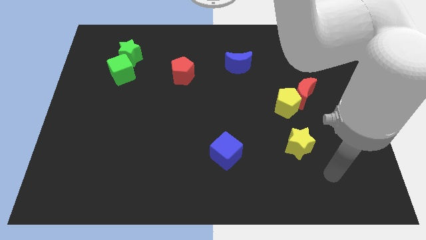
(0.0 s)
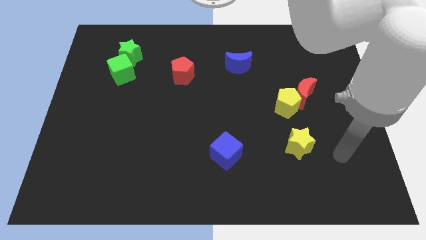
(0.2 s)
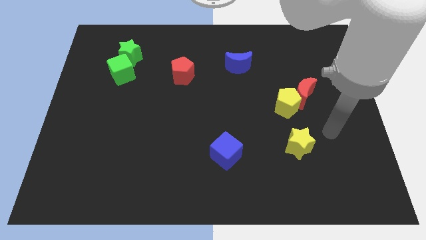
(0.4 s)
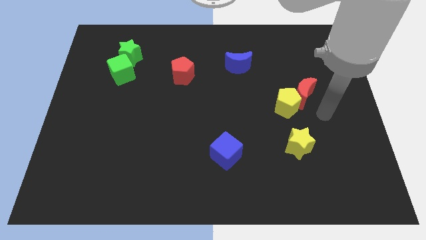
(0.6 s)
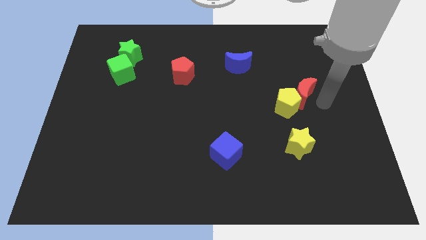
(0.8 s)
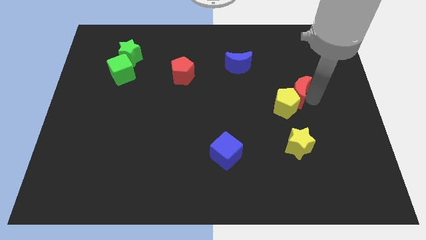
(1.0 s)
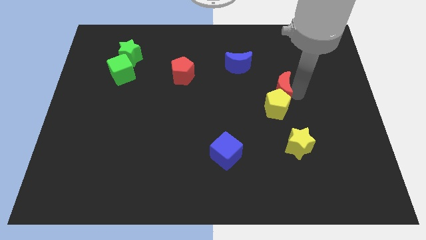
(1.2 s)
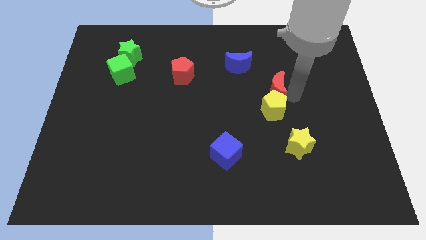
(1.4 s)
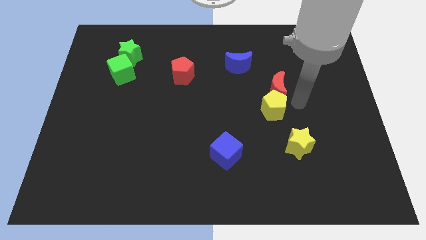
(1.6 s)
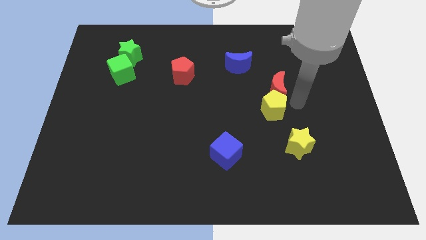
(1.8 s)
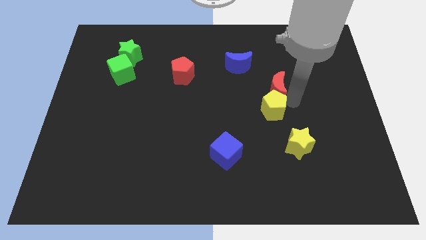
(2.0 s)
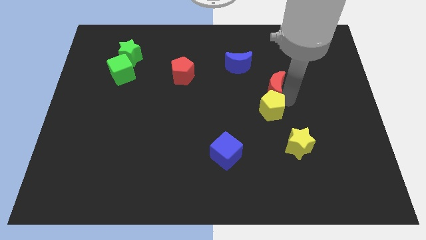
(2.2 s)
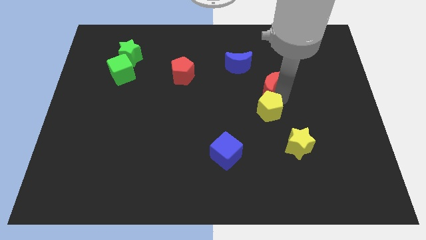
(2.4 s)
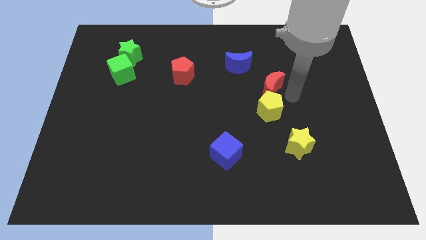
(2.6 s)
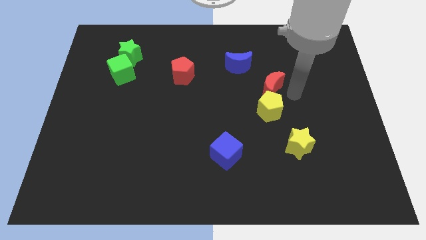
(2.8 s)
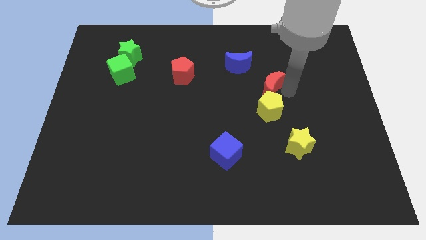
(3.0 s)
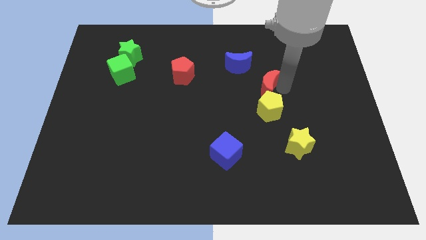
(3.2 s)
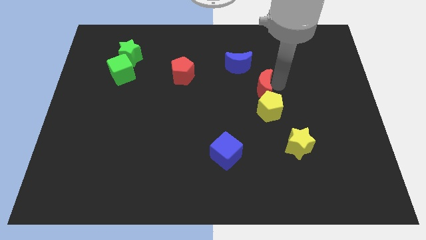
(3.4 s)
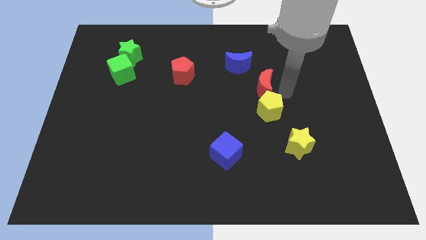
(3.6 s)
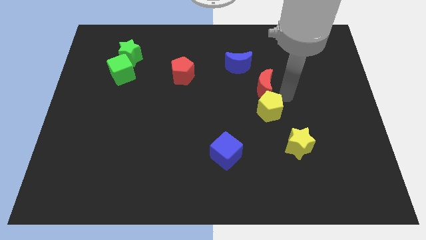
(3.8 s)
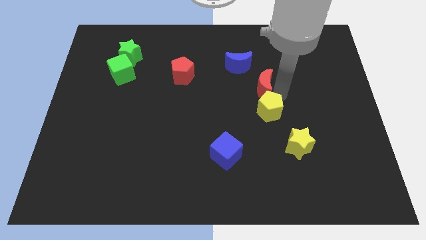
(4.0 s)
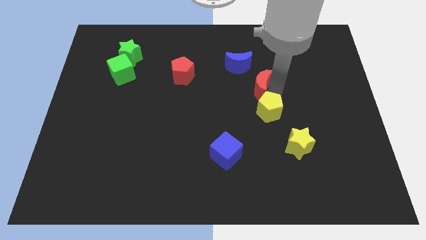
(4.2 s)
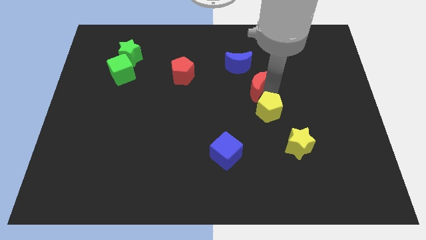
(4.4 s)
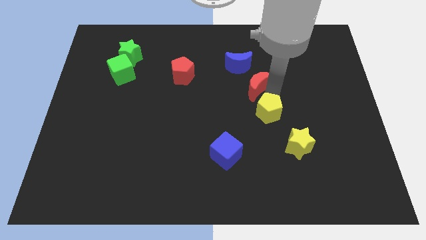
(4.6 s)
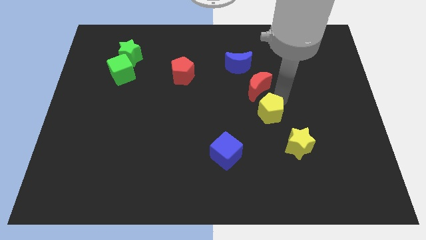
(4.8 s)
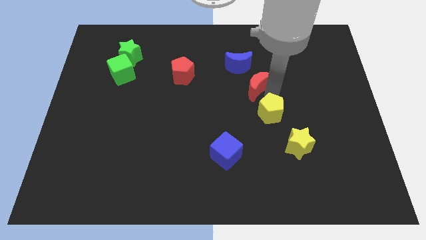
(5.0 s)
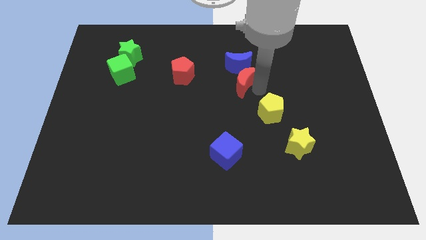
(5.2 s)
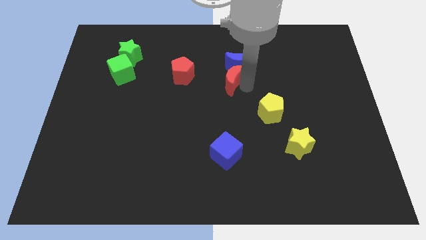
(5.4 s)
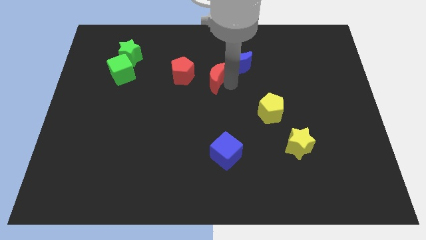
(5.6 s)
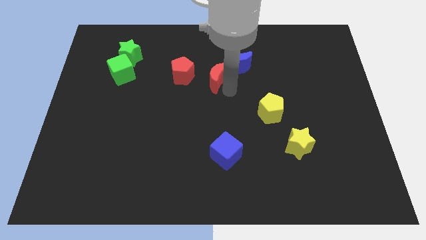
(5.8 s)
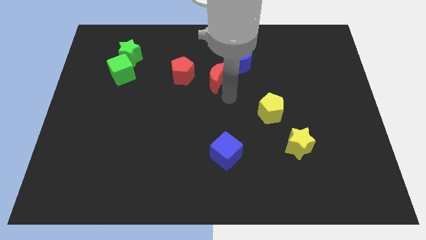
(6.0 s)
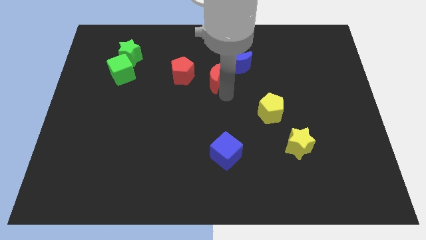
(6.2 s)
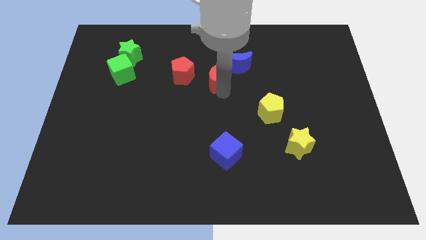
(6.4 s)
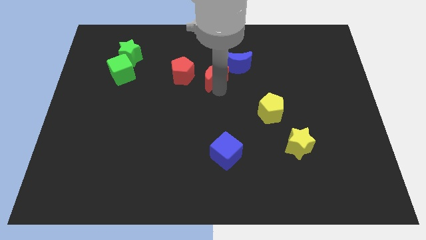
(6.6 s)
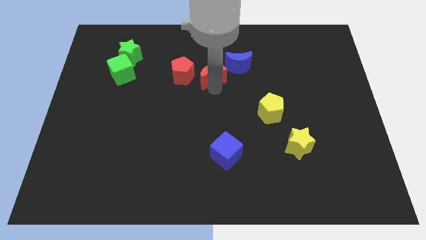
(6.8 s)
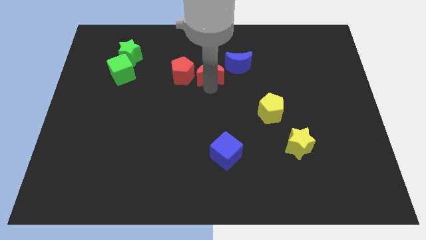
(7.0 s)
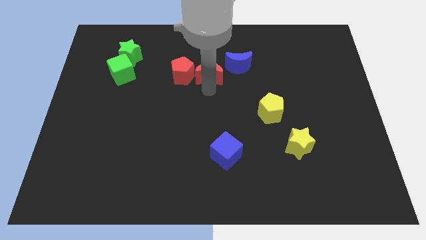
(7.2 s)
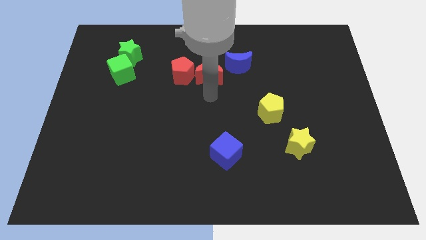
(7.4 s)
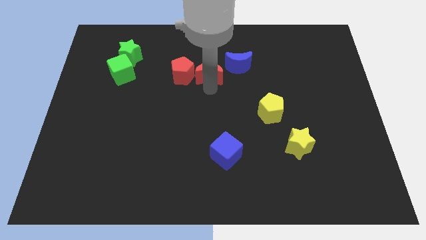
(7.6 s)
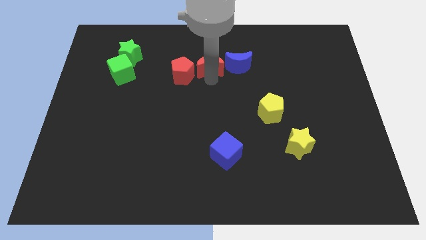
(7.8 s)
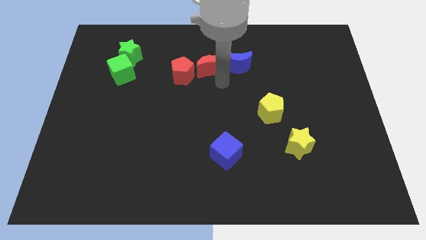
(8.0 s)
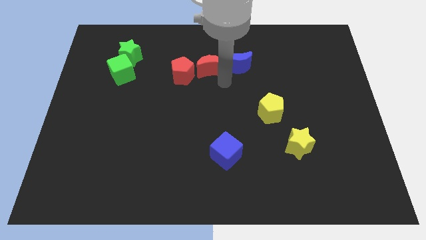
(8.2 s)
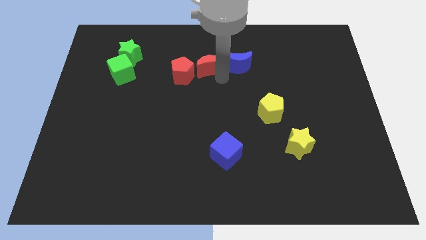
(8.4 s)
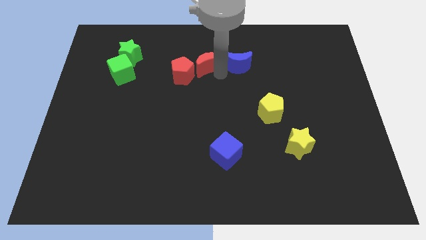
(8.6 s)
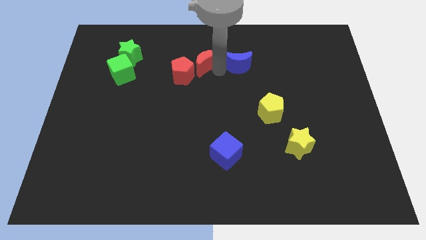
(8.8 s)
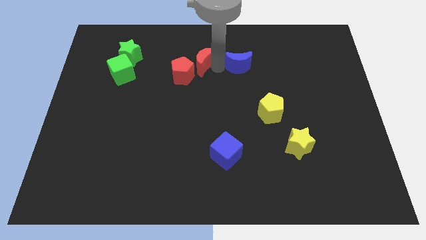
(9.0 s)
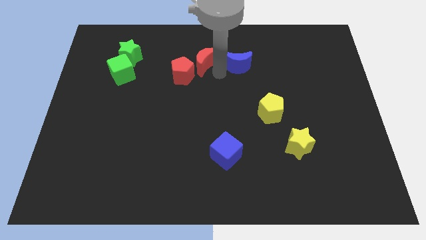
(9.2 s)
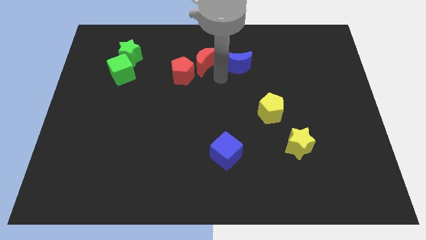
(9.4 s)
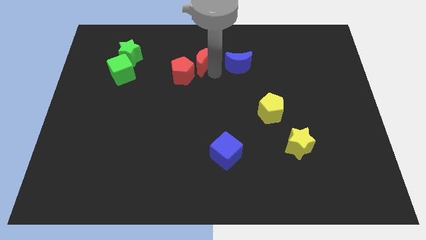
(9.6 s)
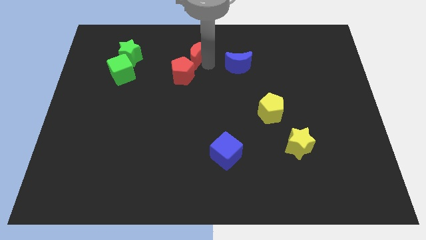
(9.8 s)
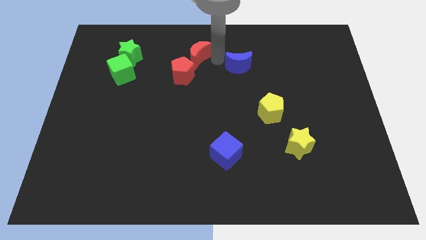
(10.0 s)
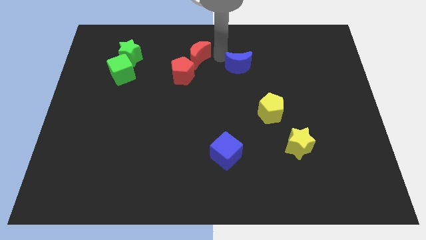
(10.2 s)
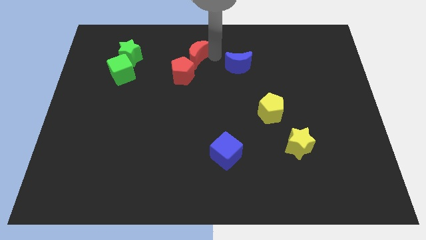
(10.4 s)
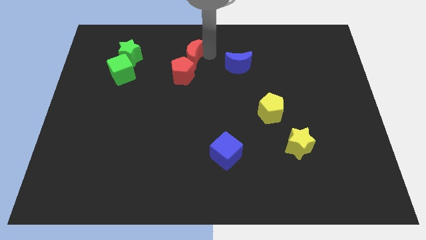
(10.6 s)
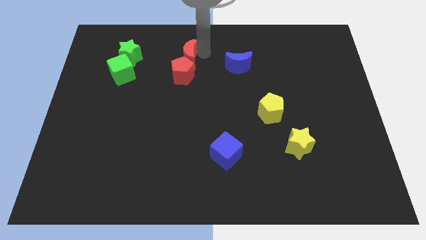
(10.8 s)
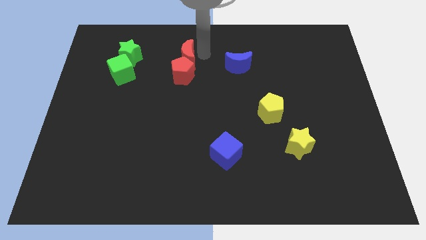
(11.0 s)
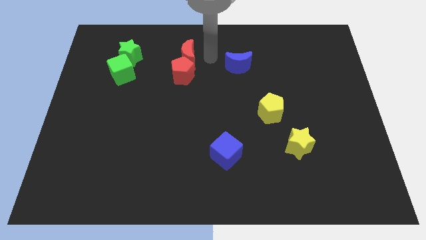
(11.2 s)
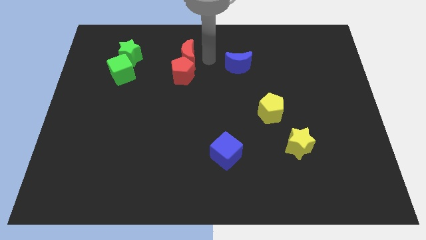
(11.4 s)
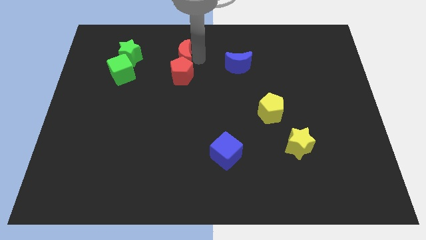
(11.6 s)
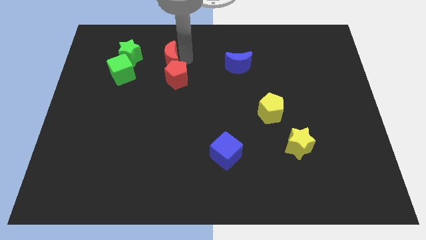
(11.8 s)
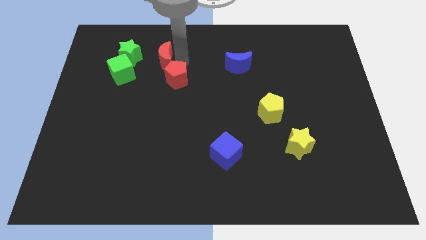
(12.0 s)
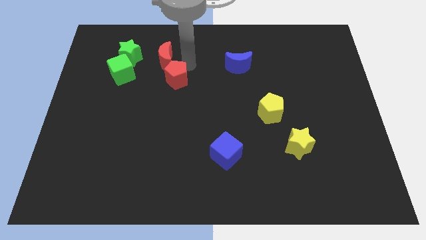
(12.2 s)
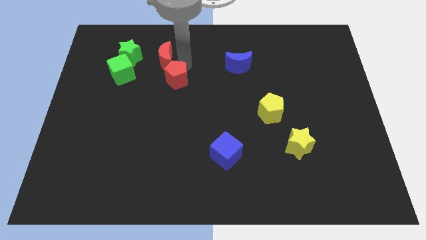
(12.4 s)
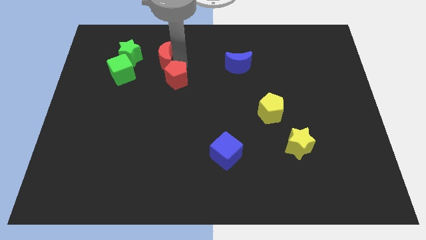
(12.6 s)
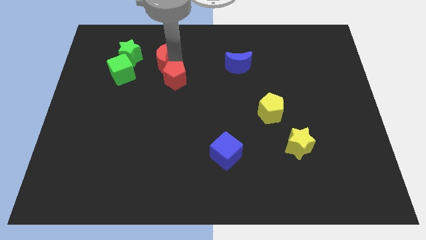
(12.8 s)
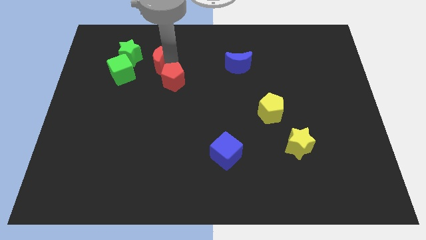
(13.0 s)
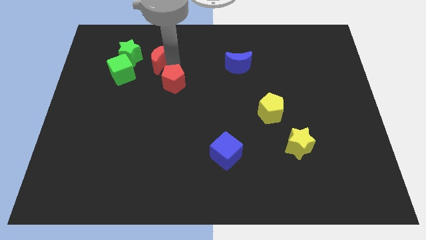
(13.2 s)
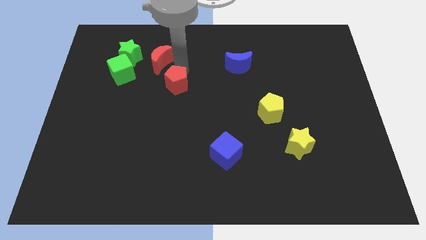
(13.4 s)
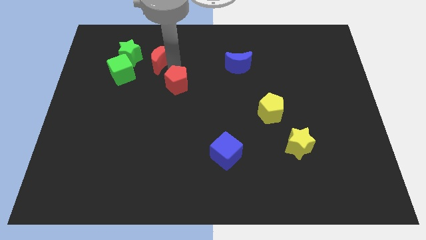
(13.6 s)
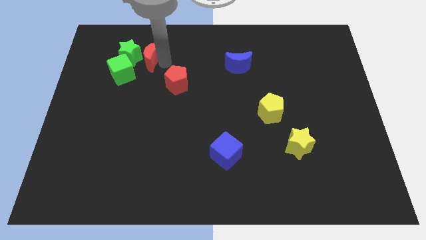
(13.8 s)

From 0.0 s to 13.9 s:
slide the red moon to the green star

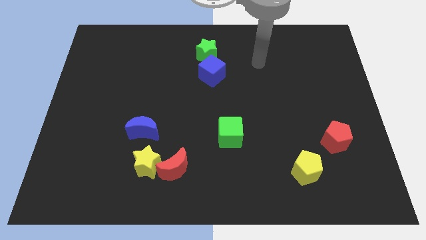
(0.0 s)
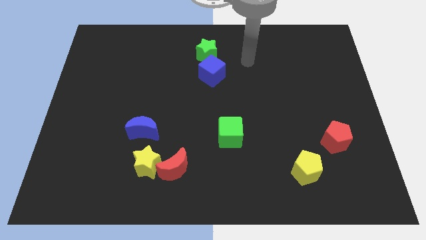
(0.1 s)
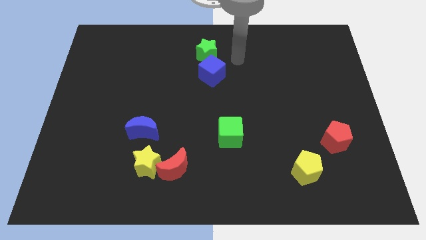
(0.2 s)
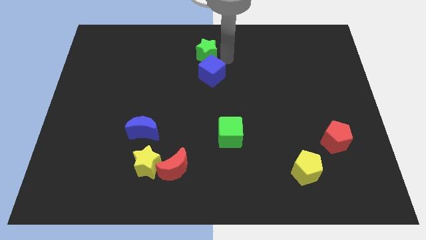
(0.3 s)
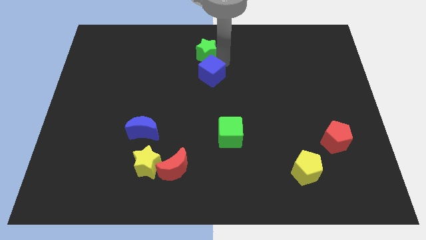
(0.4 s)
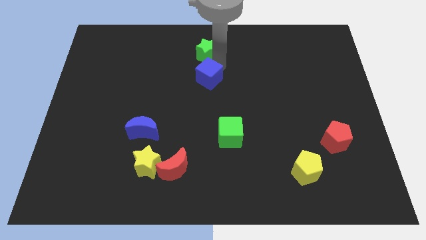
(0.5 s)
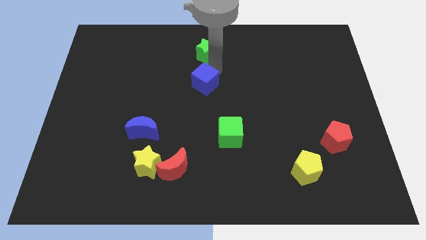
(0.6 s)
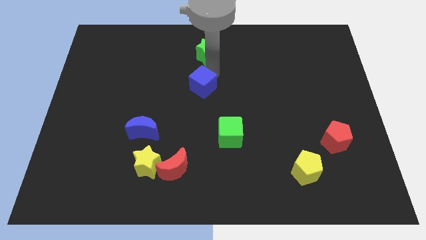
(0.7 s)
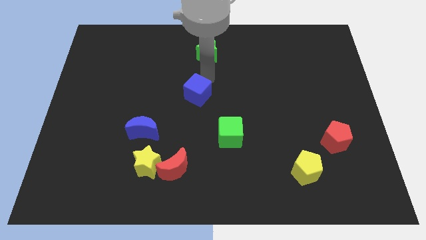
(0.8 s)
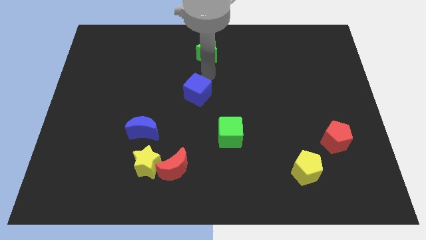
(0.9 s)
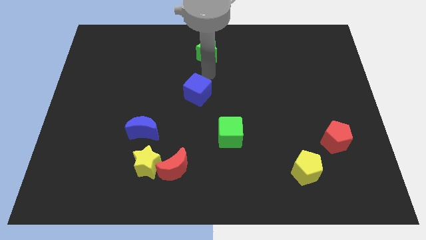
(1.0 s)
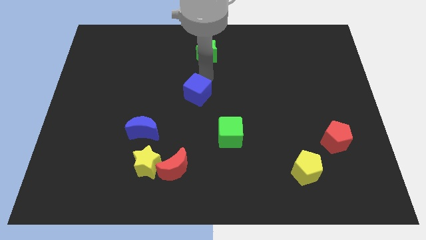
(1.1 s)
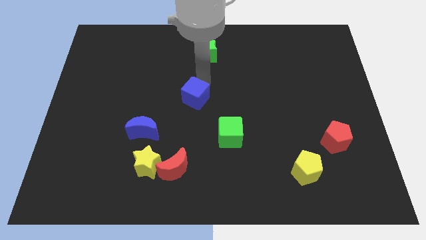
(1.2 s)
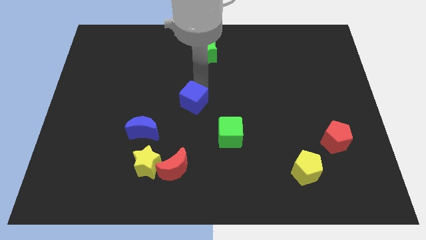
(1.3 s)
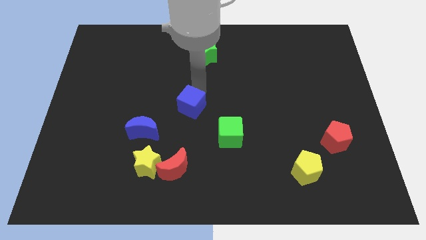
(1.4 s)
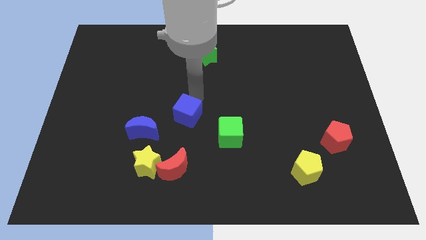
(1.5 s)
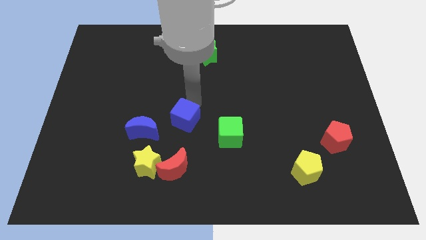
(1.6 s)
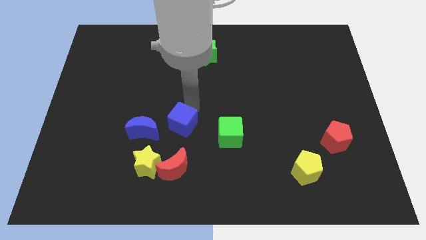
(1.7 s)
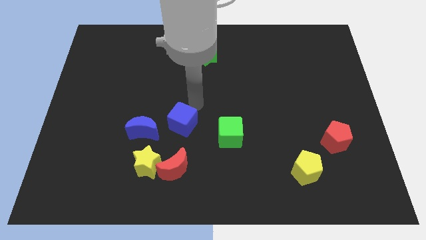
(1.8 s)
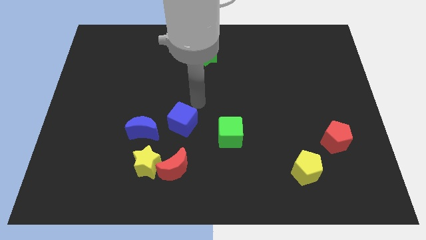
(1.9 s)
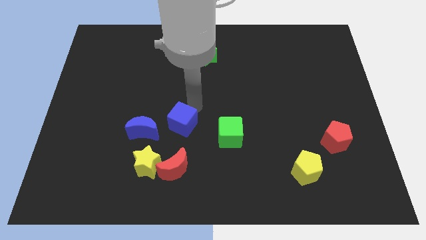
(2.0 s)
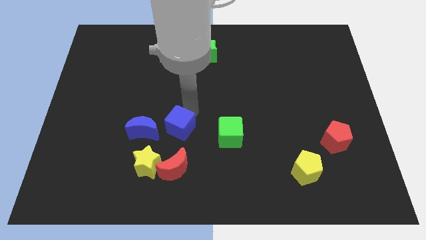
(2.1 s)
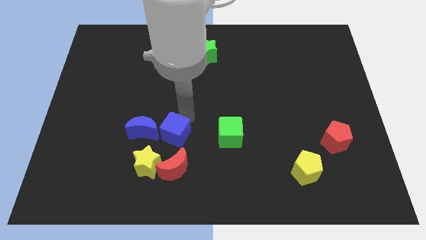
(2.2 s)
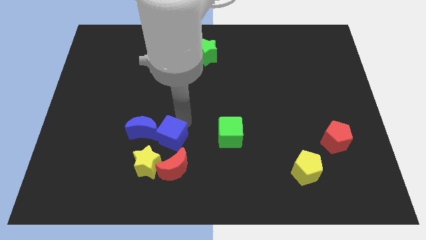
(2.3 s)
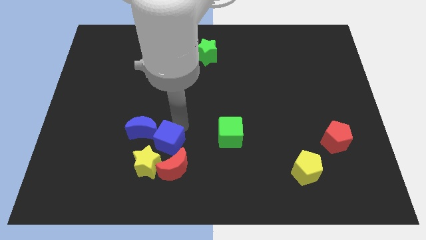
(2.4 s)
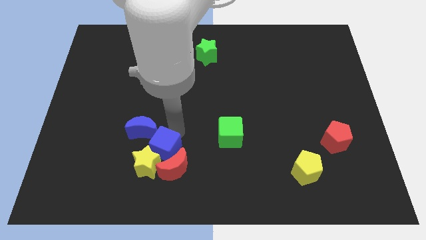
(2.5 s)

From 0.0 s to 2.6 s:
push the blue cube to the yellow star
